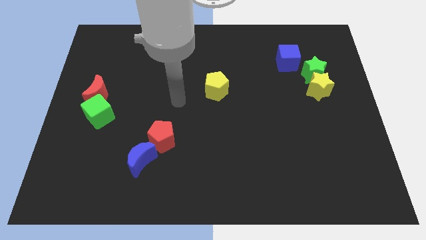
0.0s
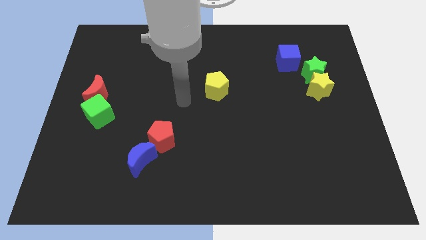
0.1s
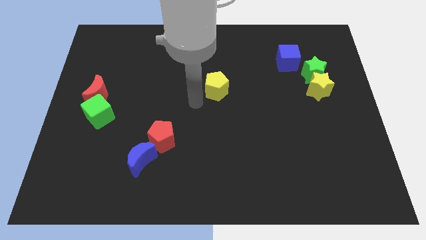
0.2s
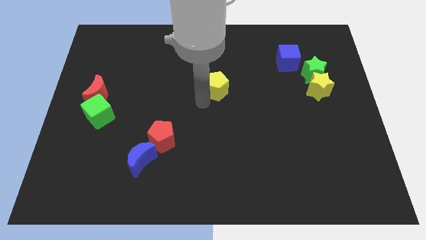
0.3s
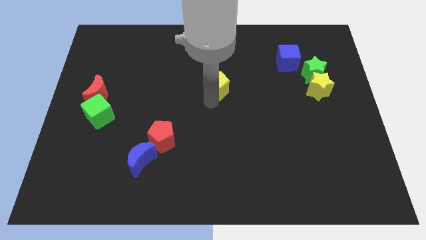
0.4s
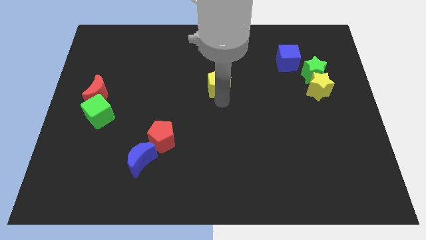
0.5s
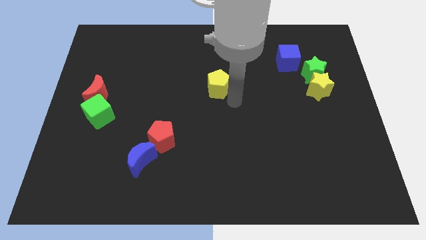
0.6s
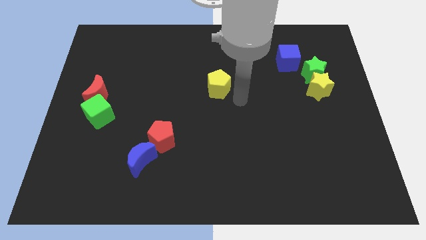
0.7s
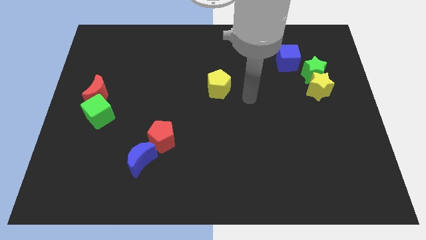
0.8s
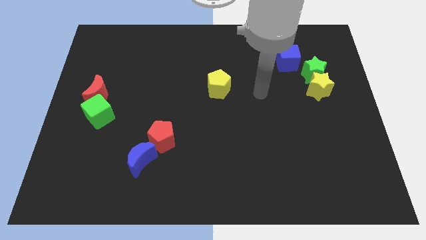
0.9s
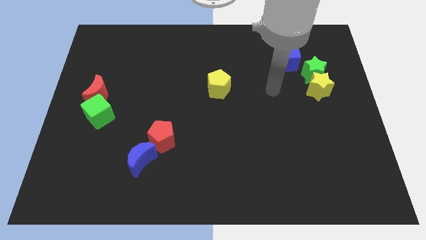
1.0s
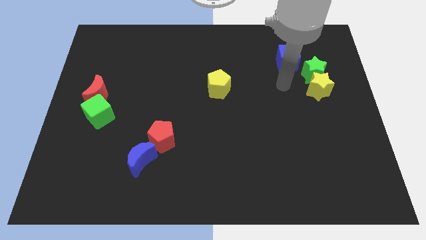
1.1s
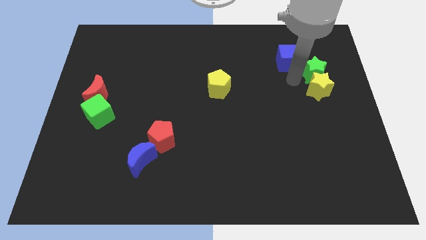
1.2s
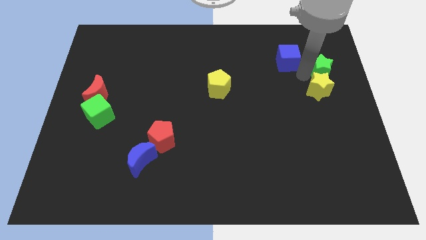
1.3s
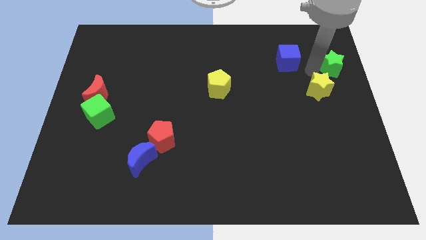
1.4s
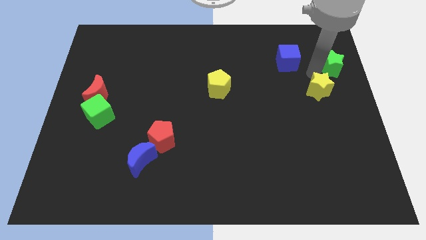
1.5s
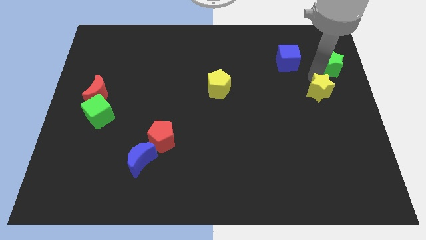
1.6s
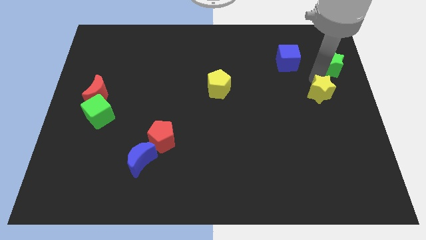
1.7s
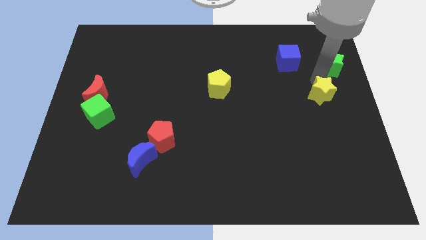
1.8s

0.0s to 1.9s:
pull the yellow star apart from the green star

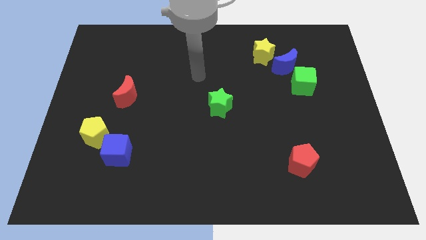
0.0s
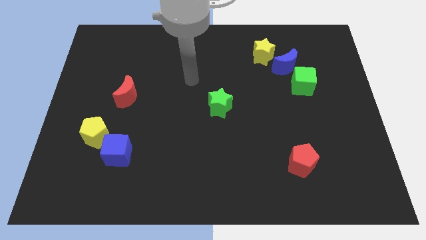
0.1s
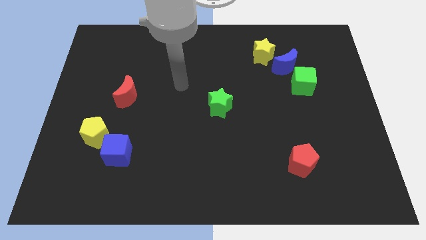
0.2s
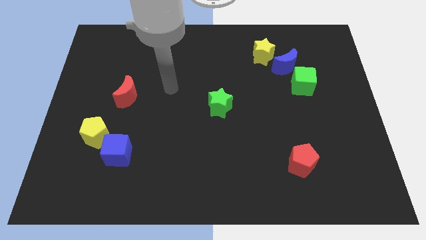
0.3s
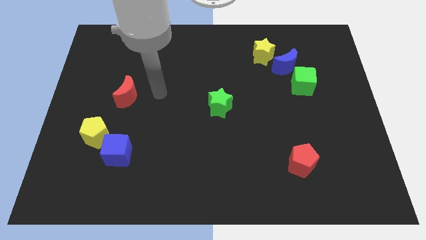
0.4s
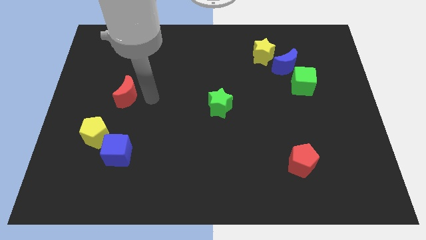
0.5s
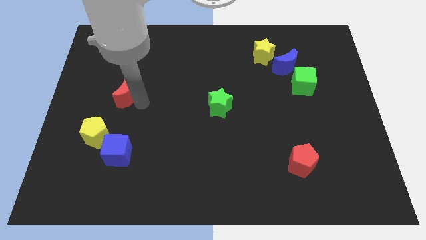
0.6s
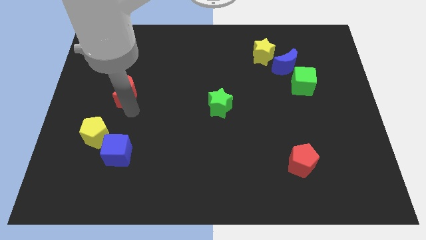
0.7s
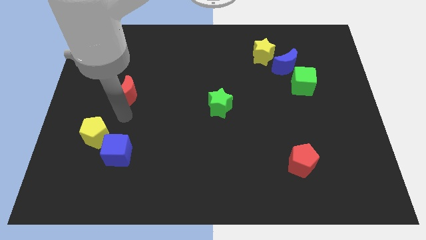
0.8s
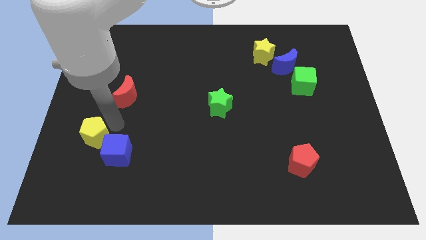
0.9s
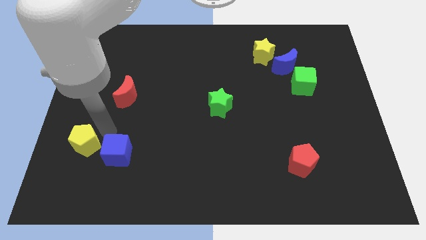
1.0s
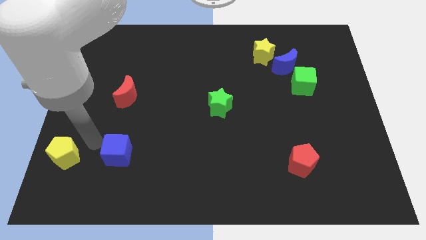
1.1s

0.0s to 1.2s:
separate the blue cube from the yellow pentagon

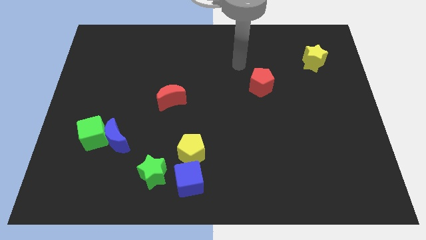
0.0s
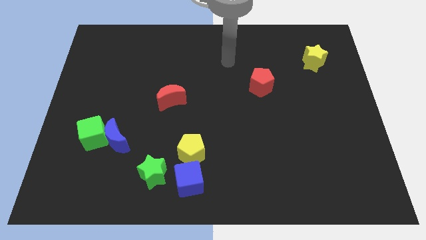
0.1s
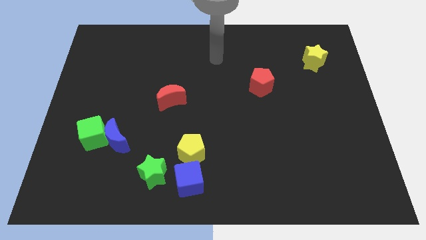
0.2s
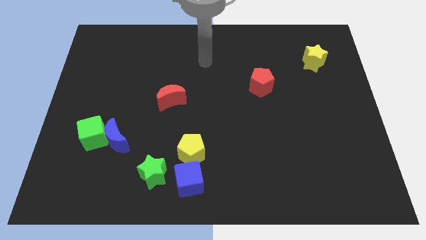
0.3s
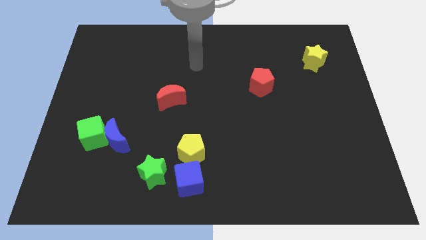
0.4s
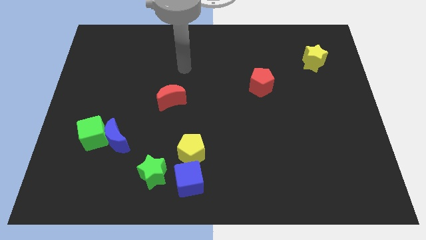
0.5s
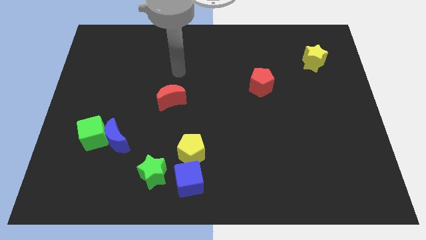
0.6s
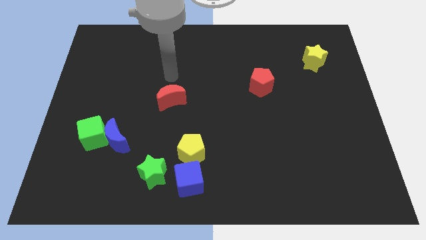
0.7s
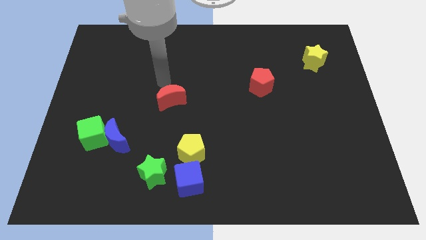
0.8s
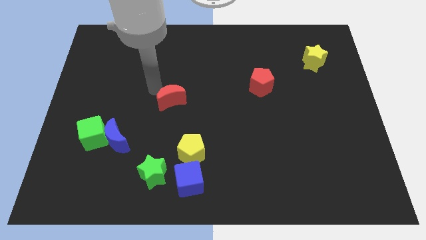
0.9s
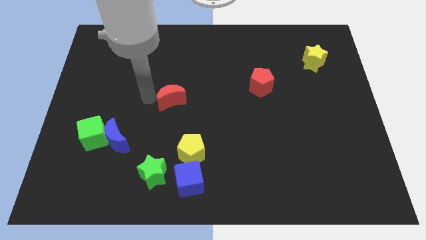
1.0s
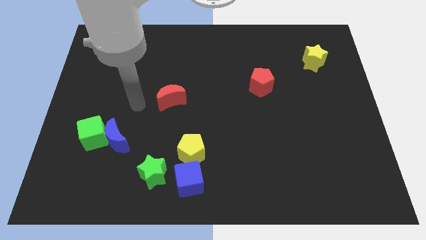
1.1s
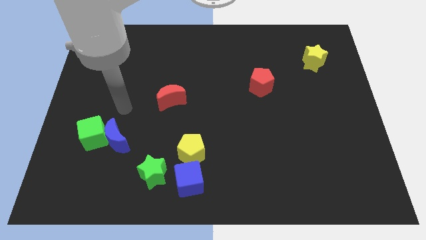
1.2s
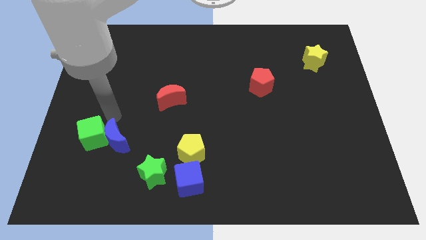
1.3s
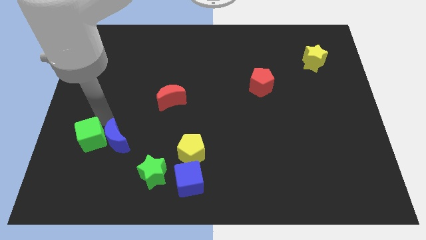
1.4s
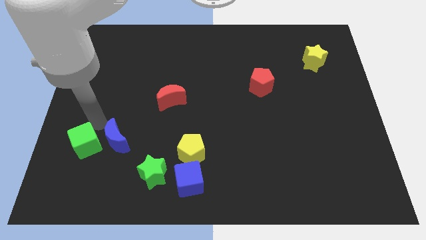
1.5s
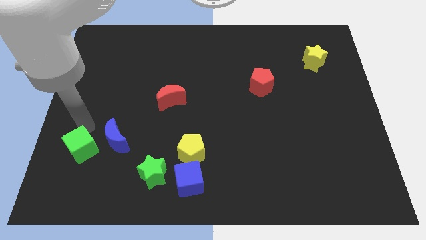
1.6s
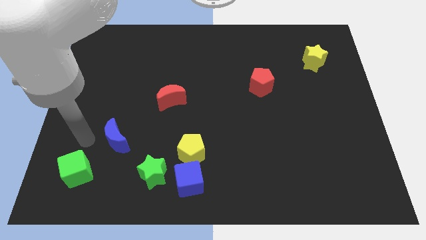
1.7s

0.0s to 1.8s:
separate the blue moon from the green cube

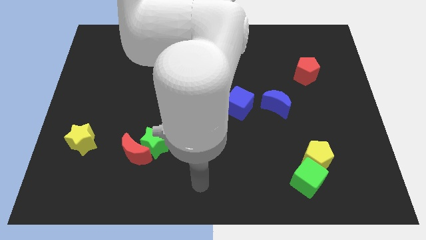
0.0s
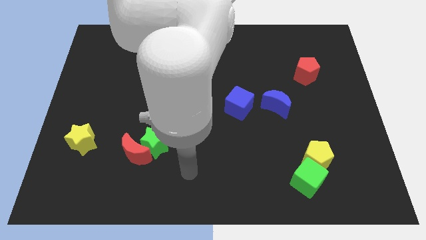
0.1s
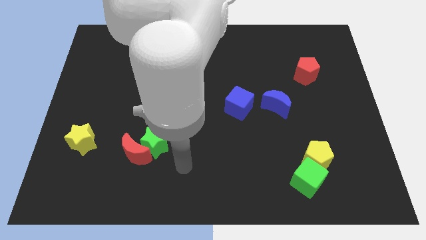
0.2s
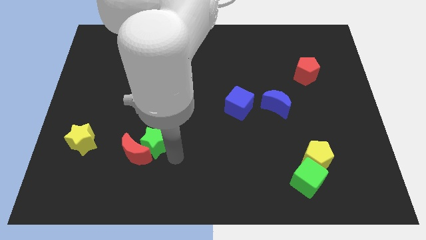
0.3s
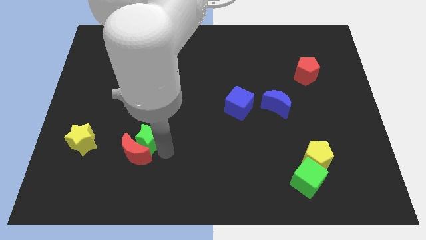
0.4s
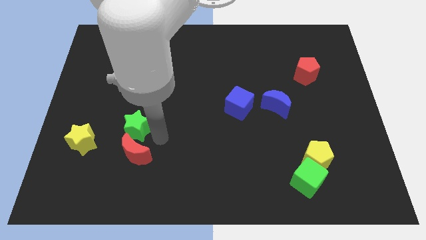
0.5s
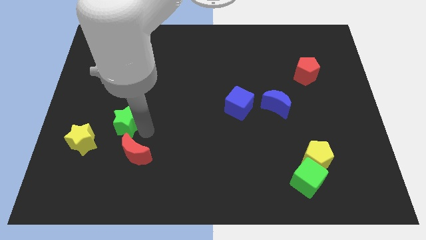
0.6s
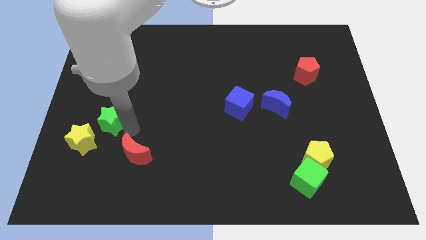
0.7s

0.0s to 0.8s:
move the red moon away from the green star

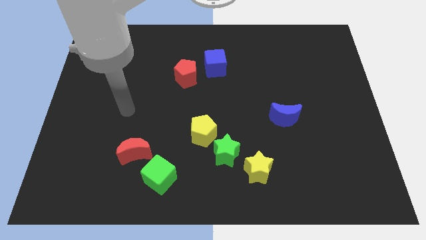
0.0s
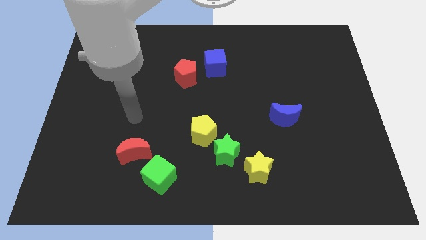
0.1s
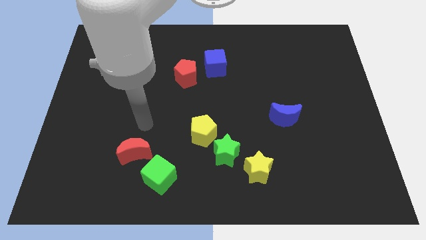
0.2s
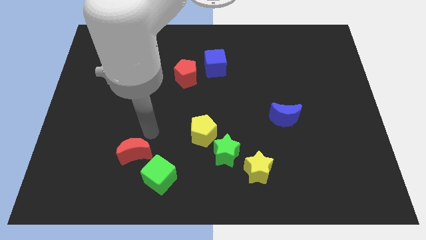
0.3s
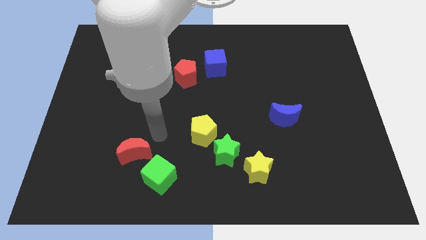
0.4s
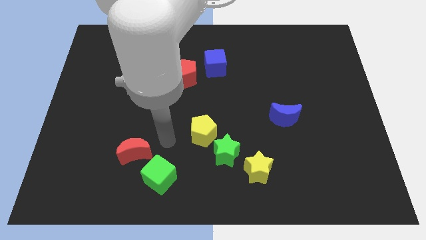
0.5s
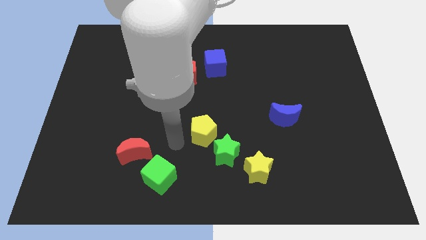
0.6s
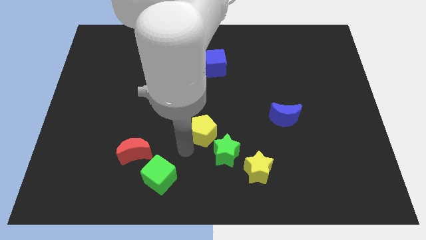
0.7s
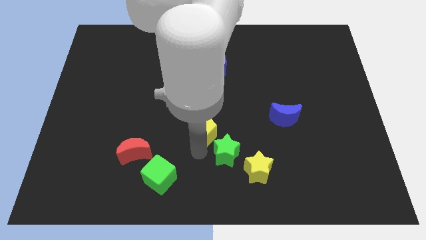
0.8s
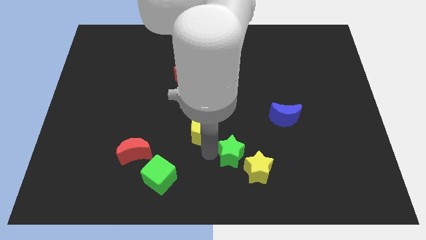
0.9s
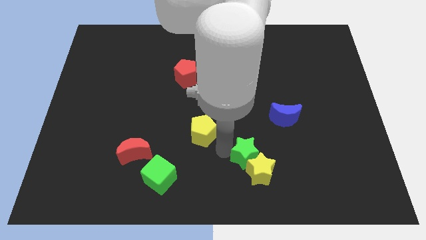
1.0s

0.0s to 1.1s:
move the yellow pentagon away from the green star

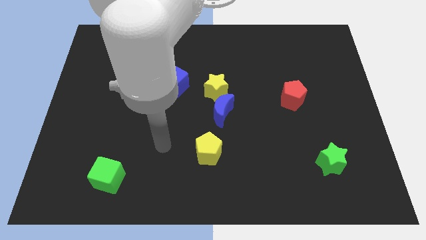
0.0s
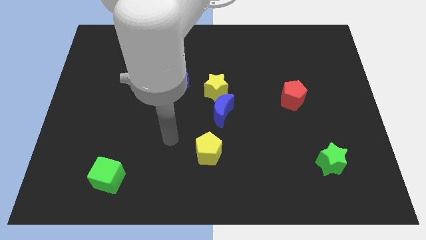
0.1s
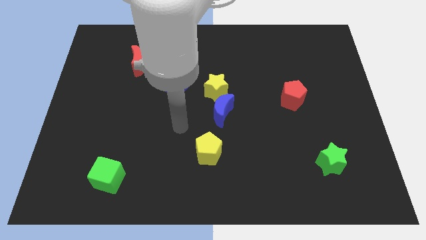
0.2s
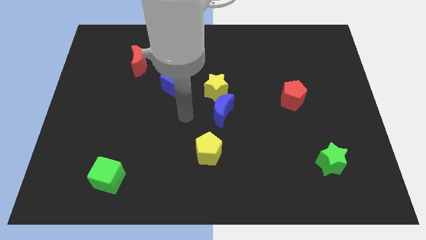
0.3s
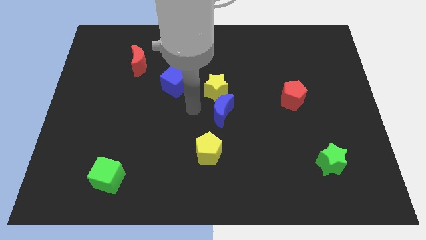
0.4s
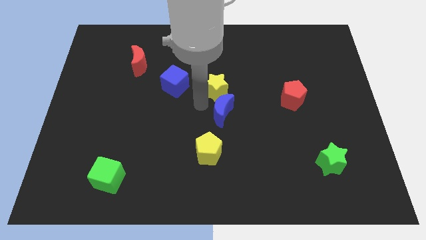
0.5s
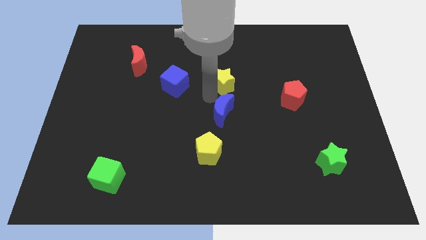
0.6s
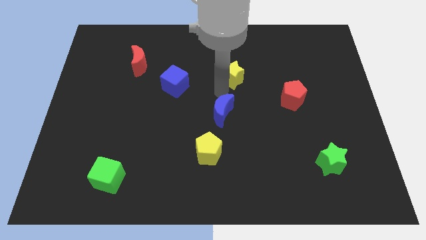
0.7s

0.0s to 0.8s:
pull the blue moon apart from the yellow star

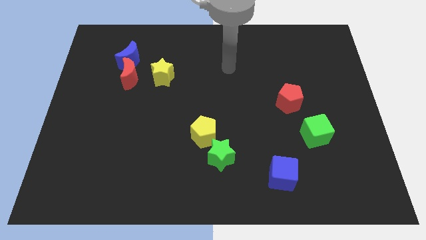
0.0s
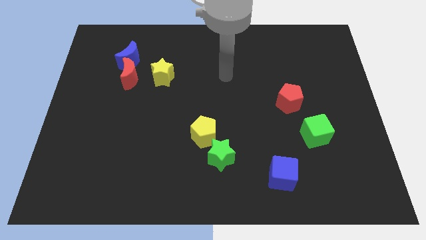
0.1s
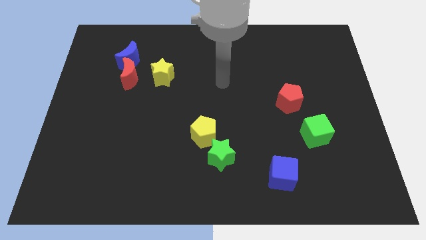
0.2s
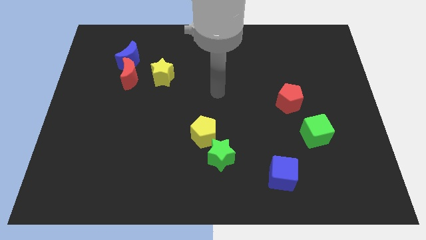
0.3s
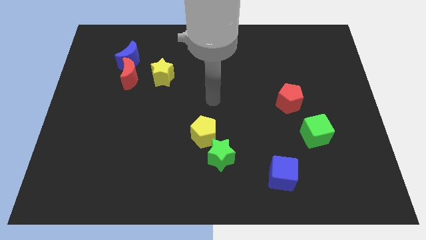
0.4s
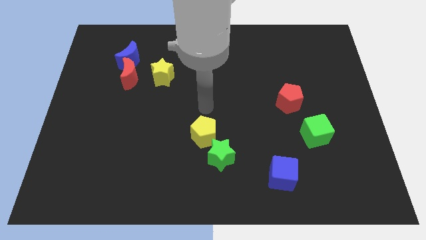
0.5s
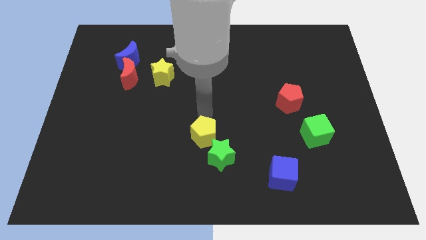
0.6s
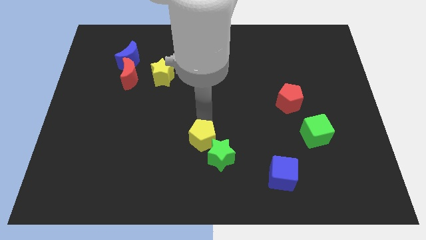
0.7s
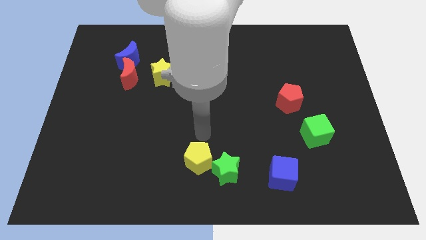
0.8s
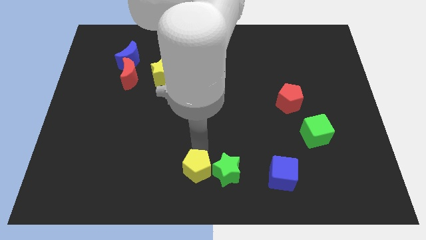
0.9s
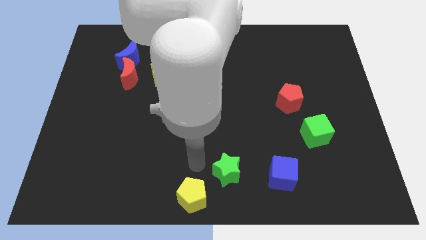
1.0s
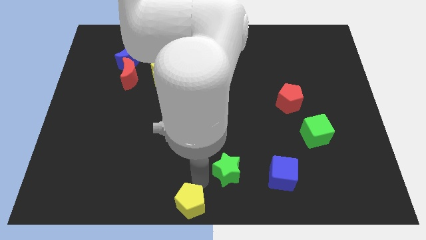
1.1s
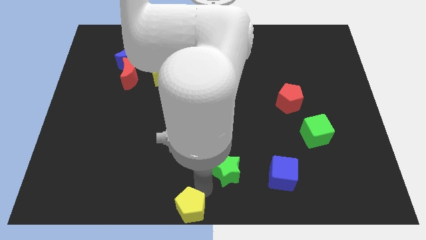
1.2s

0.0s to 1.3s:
pull the green star apart from the yellow pentagon

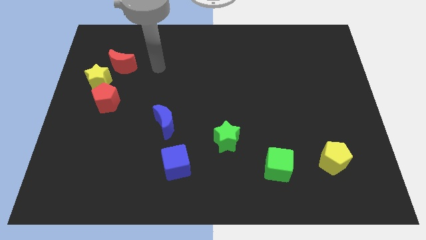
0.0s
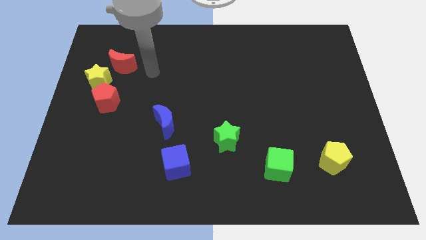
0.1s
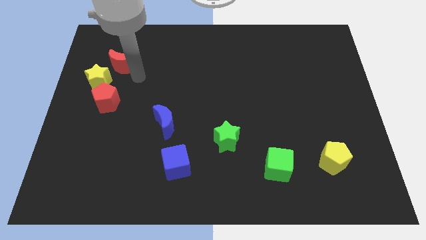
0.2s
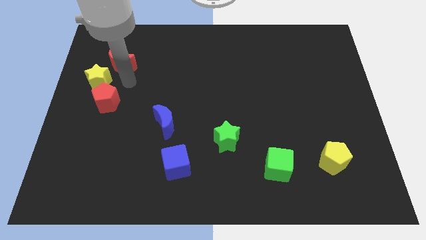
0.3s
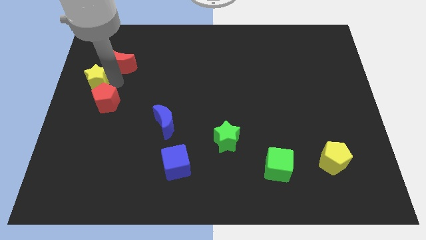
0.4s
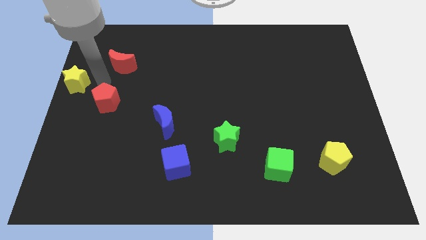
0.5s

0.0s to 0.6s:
separate the red pentagon from the yellow star

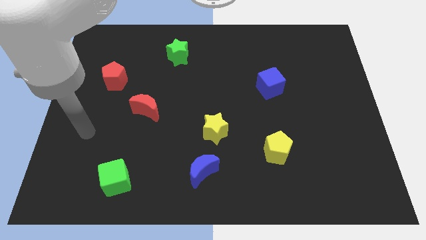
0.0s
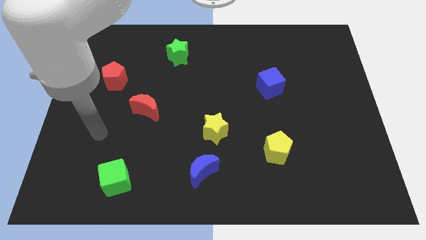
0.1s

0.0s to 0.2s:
separate the blue moon from the yellow star
